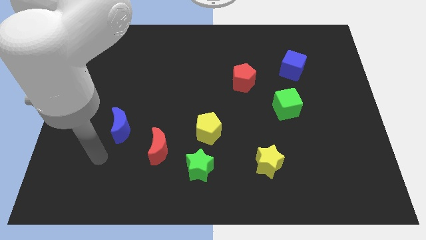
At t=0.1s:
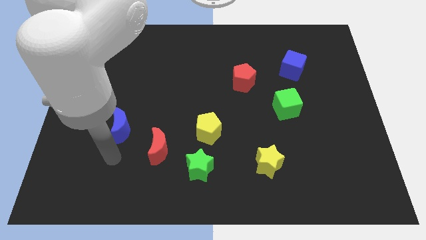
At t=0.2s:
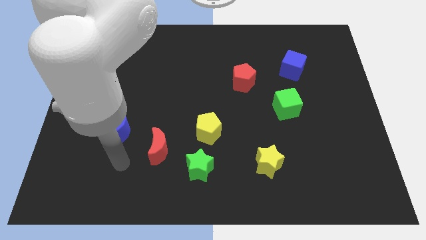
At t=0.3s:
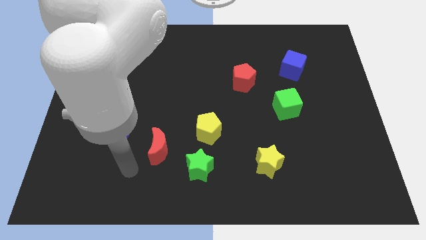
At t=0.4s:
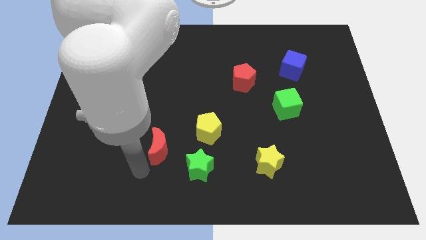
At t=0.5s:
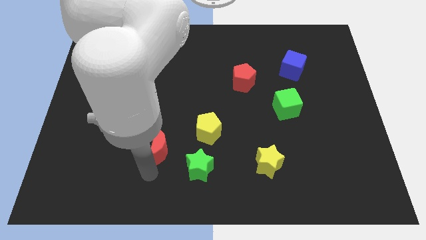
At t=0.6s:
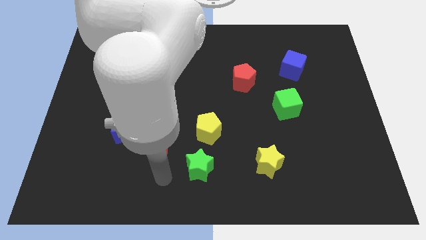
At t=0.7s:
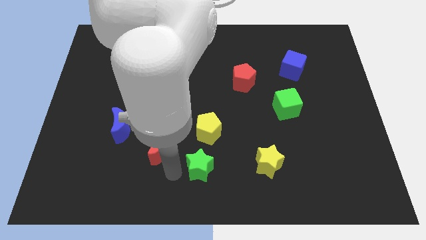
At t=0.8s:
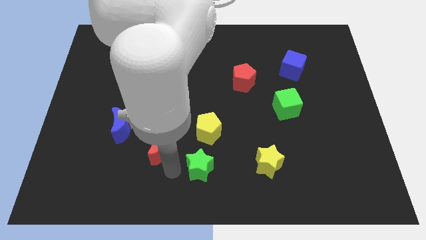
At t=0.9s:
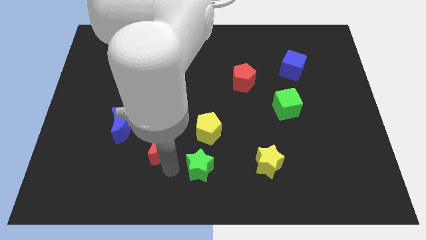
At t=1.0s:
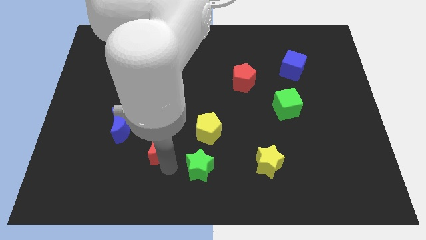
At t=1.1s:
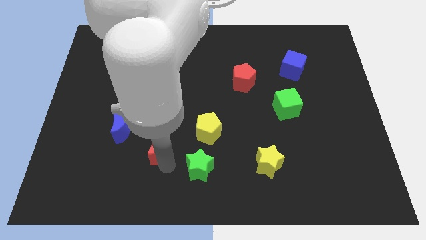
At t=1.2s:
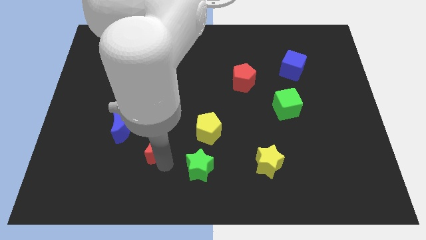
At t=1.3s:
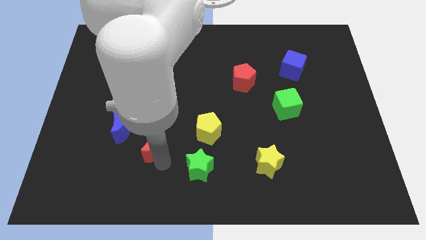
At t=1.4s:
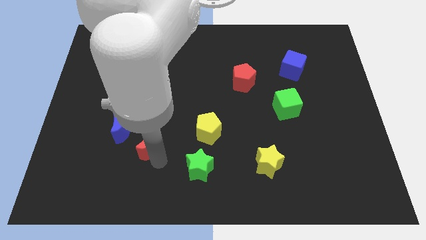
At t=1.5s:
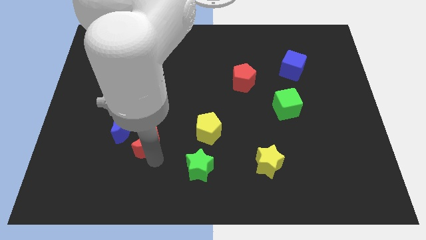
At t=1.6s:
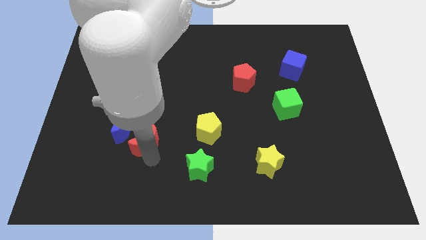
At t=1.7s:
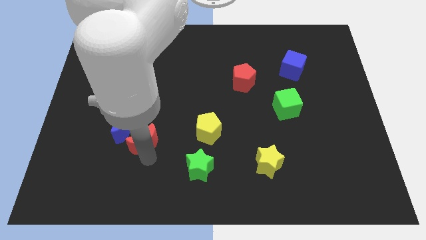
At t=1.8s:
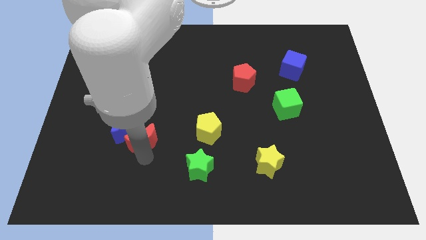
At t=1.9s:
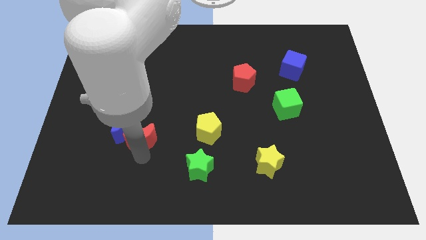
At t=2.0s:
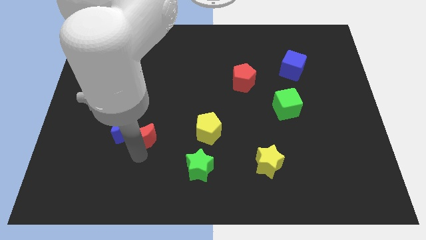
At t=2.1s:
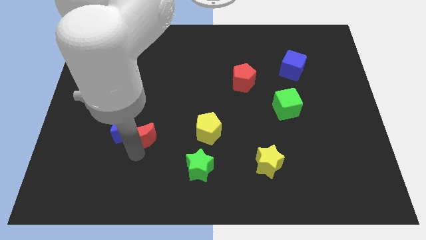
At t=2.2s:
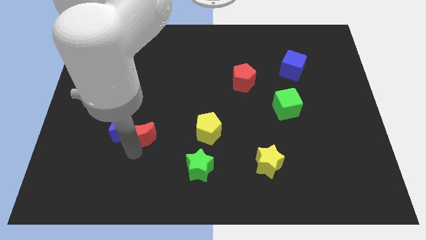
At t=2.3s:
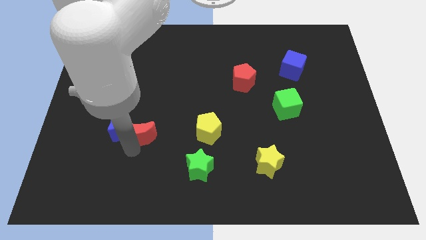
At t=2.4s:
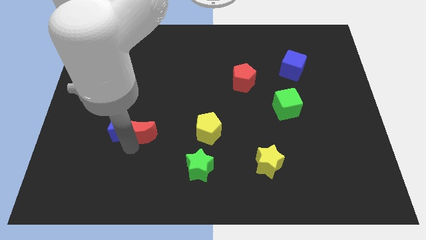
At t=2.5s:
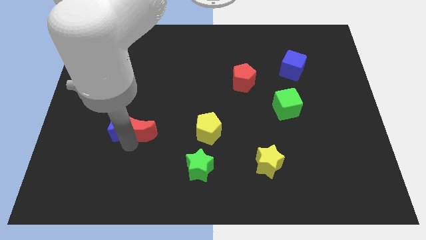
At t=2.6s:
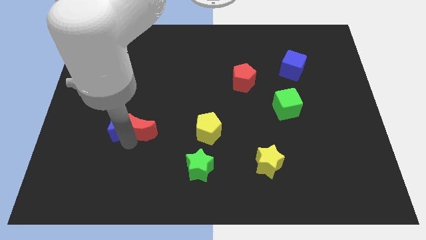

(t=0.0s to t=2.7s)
slide the red moon a bit up and then to the left

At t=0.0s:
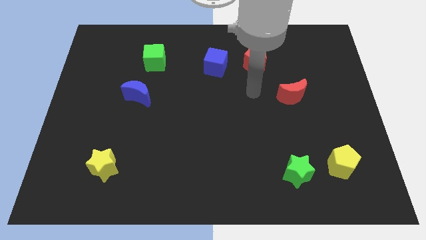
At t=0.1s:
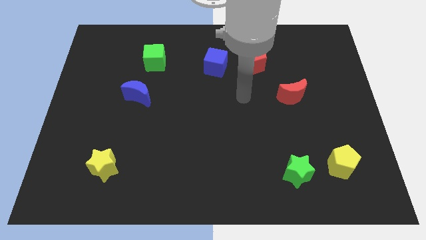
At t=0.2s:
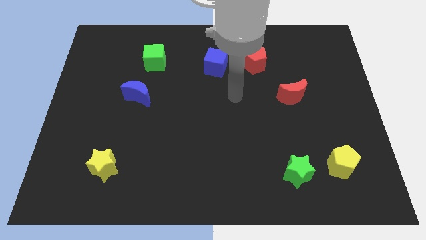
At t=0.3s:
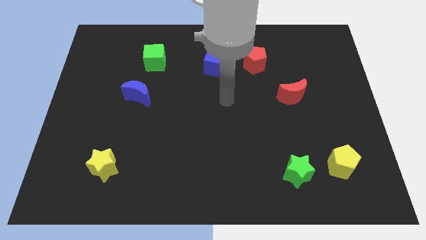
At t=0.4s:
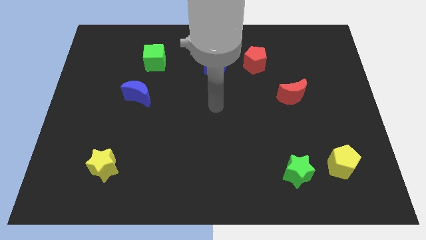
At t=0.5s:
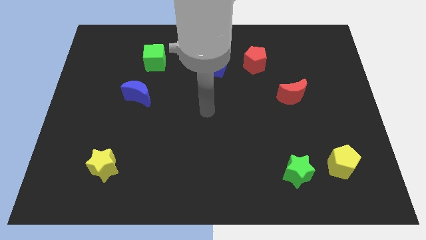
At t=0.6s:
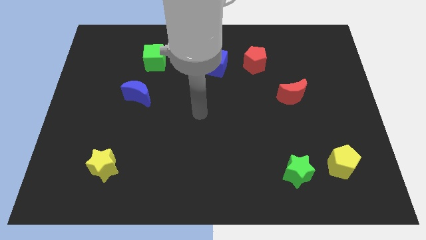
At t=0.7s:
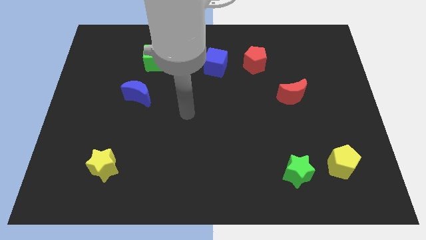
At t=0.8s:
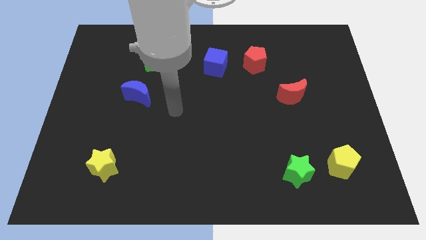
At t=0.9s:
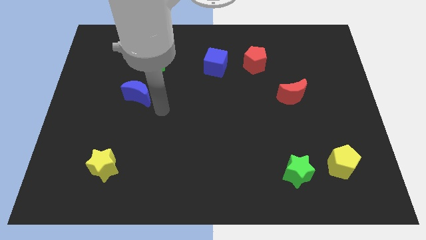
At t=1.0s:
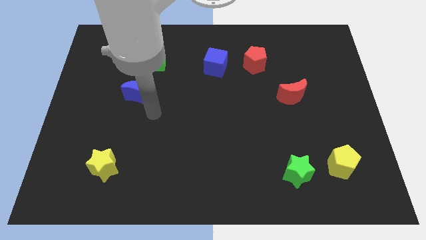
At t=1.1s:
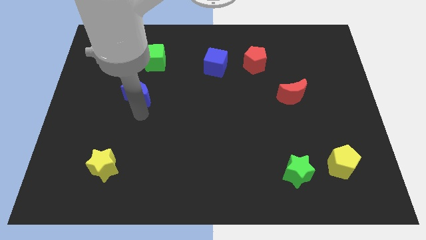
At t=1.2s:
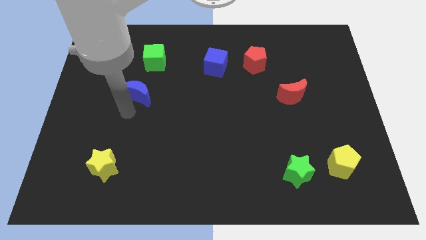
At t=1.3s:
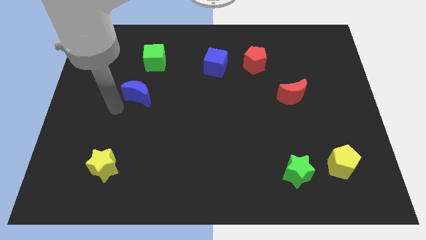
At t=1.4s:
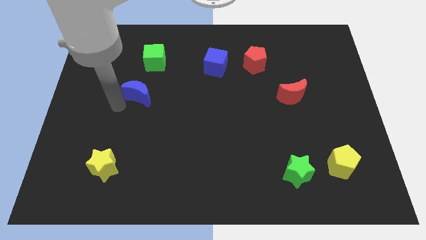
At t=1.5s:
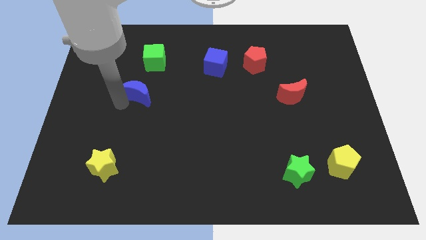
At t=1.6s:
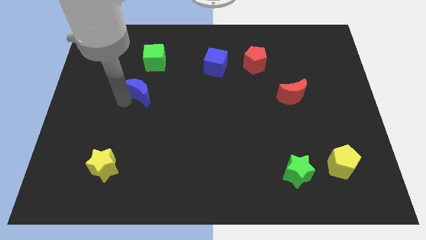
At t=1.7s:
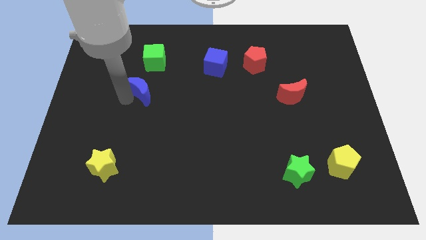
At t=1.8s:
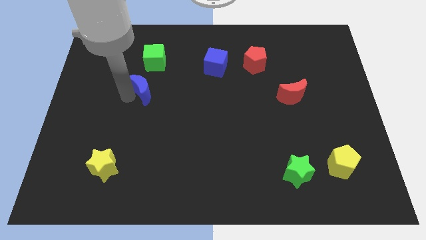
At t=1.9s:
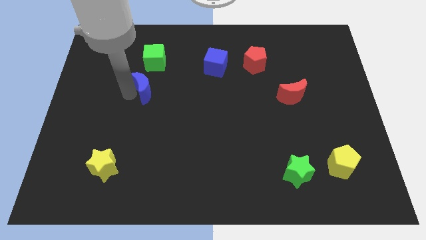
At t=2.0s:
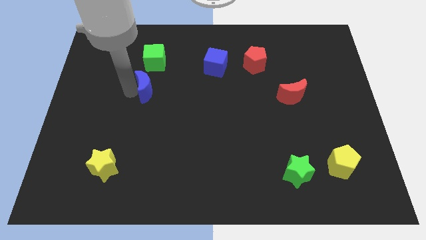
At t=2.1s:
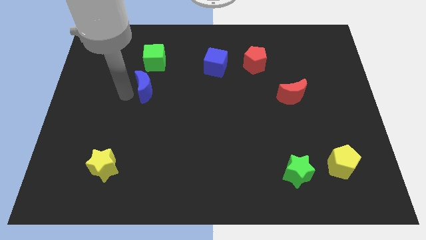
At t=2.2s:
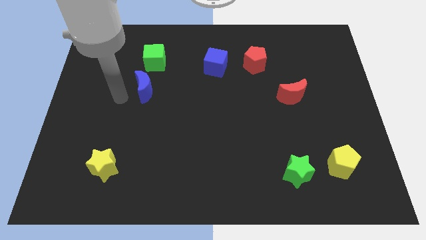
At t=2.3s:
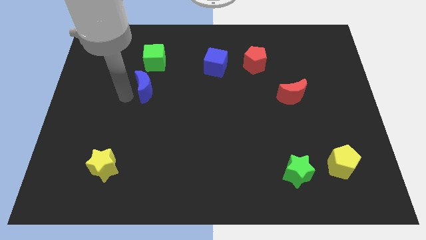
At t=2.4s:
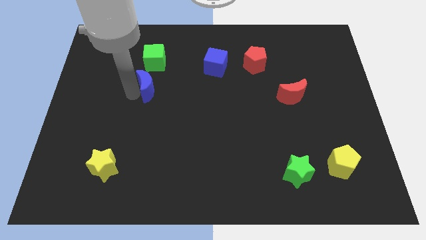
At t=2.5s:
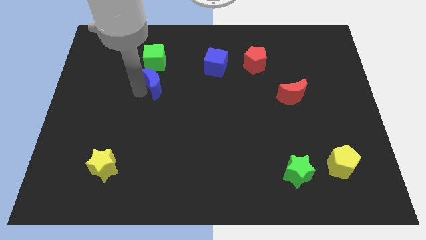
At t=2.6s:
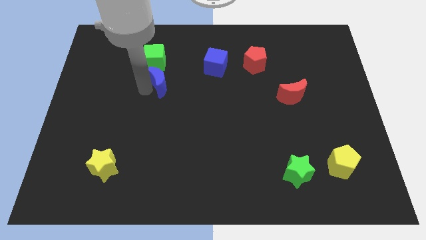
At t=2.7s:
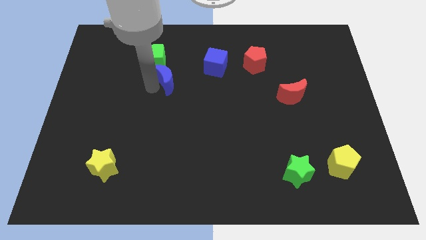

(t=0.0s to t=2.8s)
move the blue moon up and right diagonally slightly

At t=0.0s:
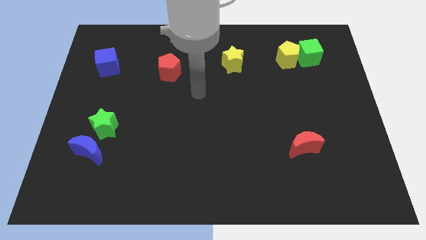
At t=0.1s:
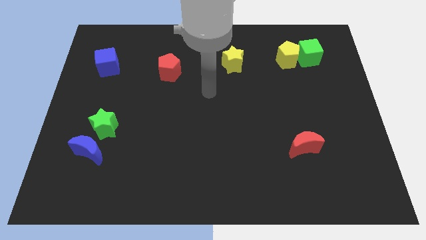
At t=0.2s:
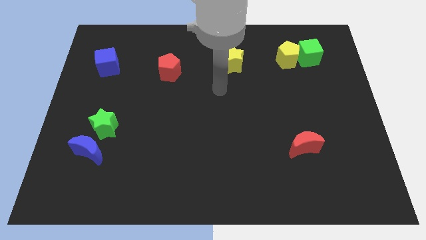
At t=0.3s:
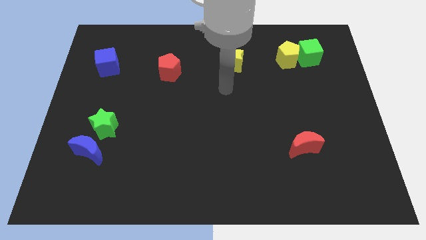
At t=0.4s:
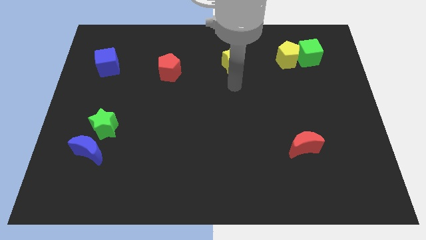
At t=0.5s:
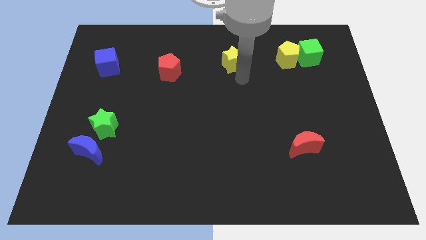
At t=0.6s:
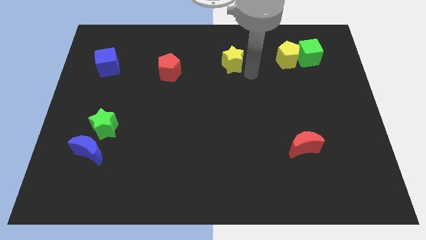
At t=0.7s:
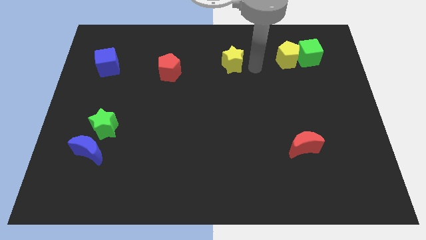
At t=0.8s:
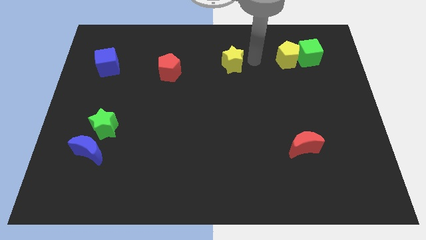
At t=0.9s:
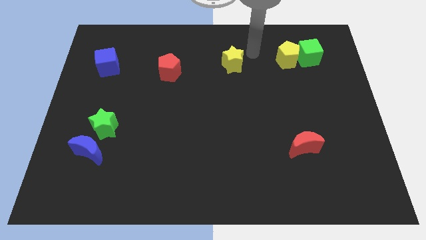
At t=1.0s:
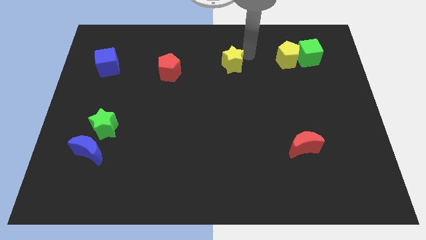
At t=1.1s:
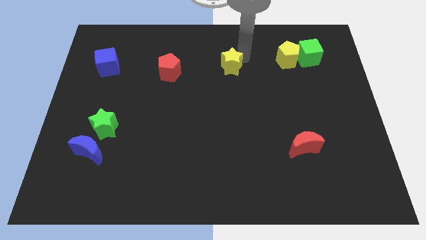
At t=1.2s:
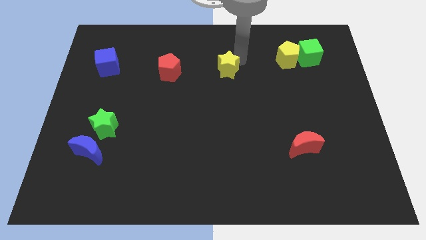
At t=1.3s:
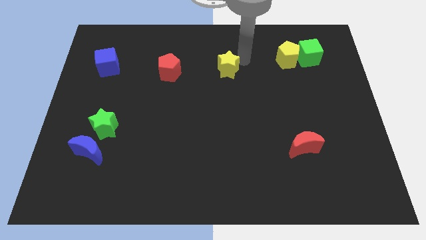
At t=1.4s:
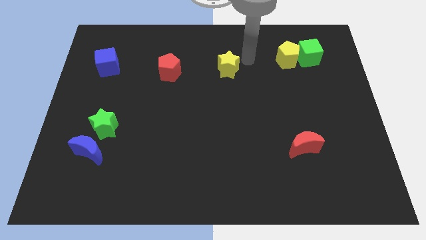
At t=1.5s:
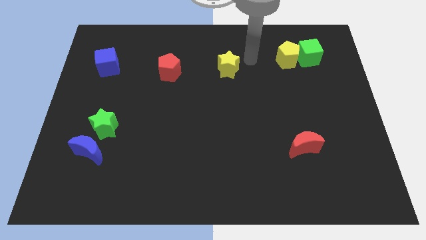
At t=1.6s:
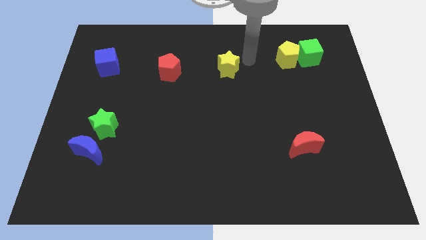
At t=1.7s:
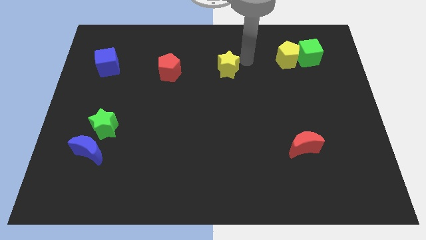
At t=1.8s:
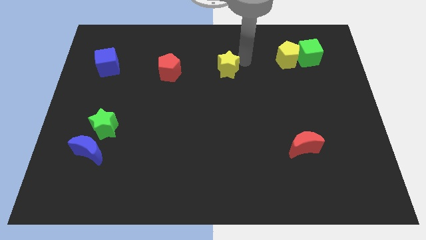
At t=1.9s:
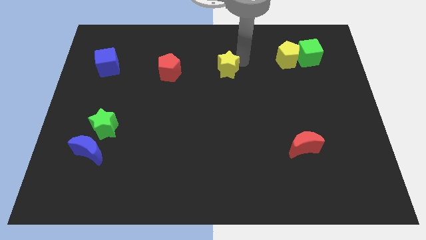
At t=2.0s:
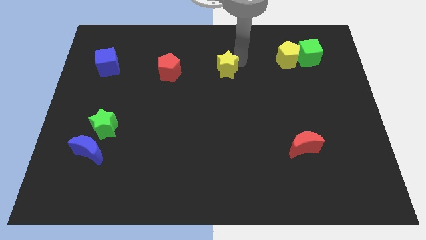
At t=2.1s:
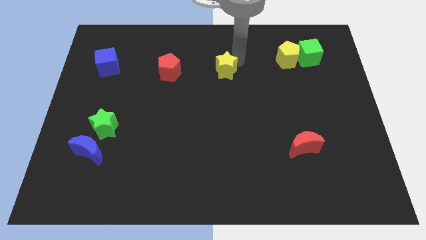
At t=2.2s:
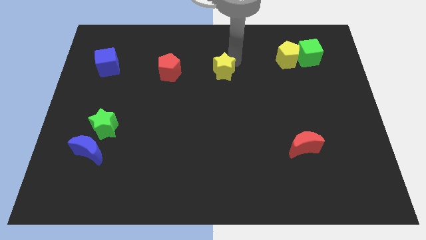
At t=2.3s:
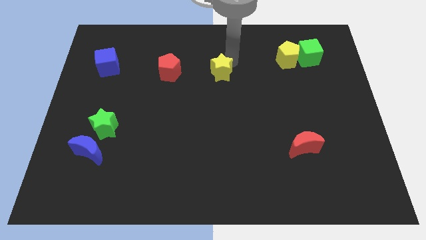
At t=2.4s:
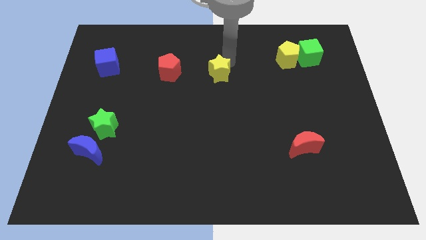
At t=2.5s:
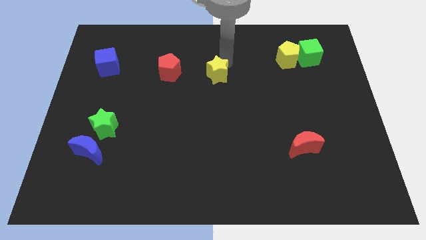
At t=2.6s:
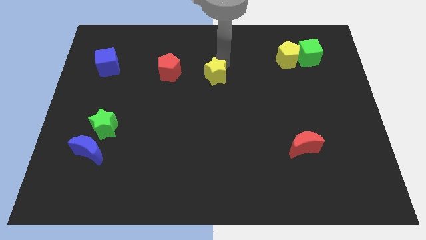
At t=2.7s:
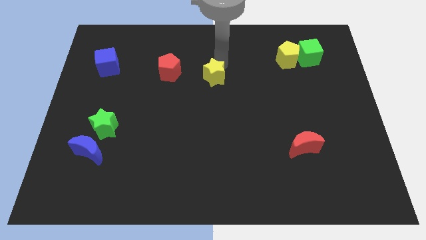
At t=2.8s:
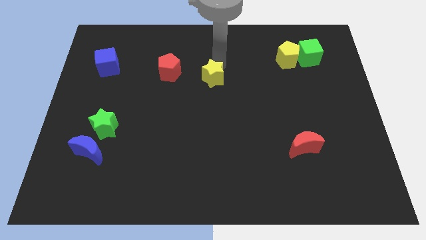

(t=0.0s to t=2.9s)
move the yellow star slightly diagonally downwards and to the left
